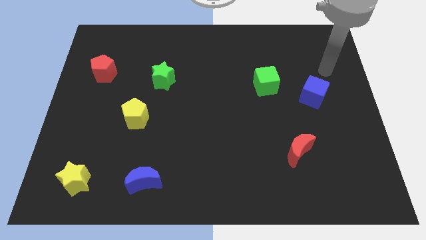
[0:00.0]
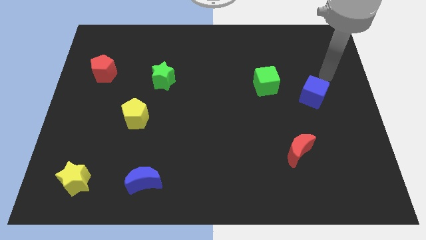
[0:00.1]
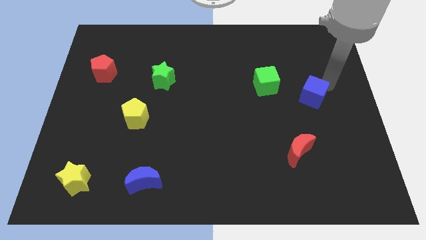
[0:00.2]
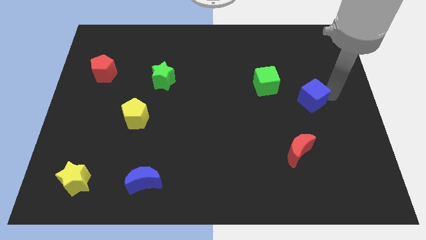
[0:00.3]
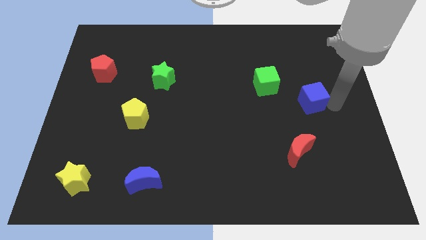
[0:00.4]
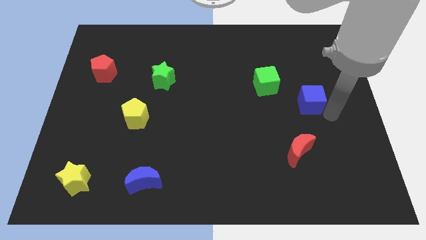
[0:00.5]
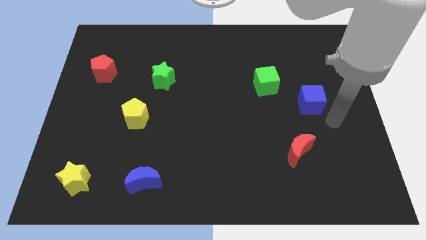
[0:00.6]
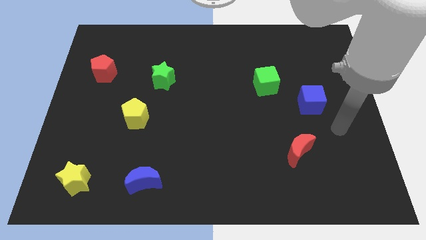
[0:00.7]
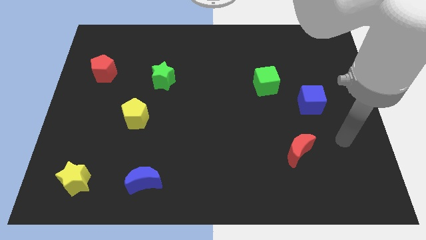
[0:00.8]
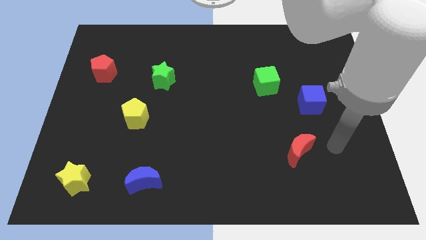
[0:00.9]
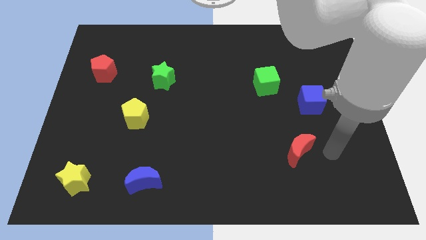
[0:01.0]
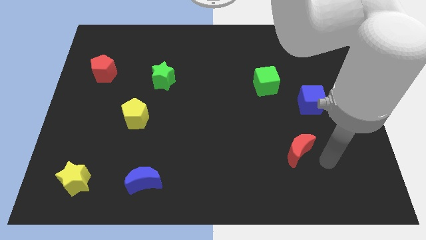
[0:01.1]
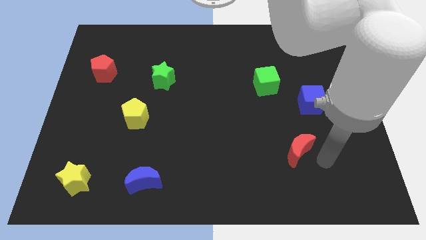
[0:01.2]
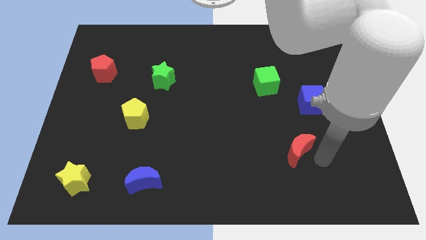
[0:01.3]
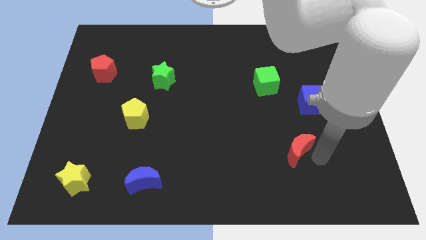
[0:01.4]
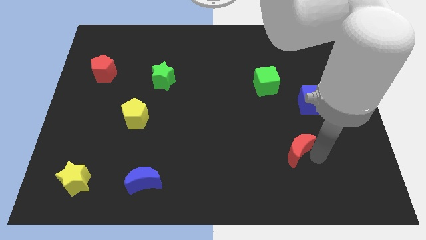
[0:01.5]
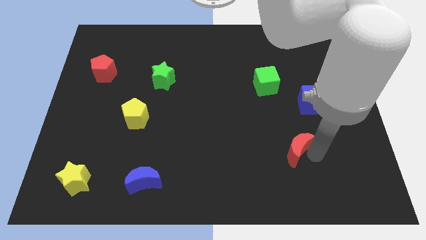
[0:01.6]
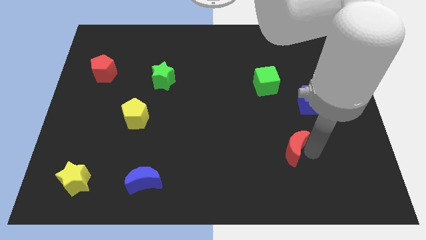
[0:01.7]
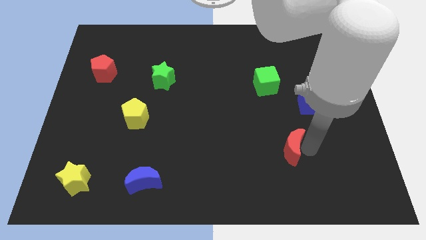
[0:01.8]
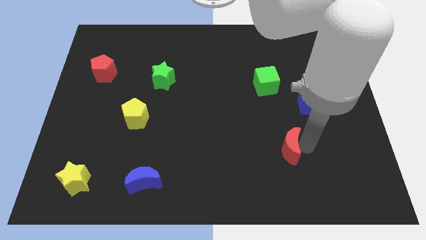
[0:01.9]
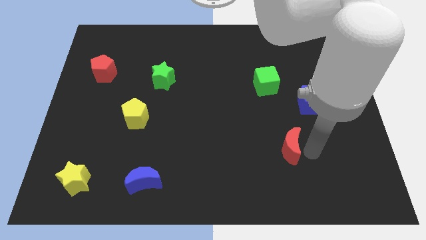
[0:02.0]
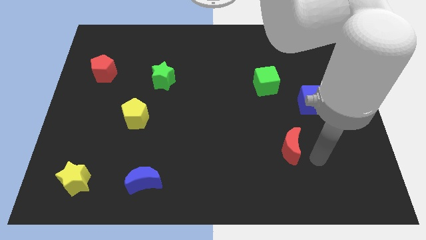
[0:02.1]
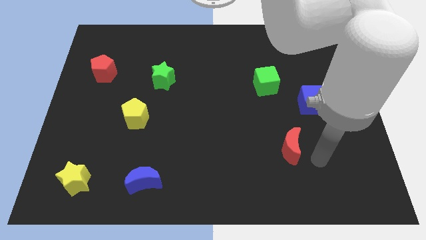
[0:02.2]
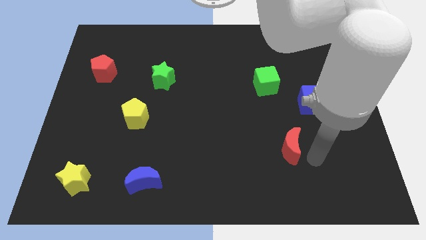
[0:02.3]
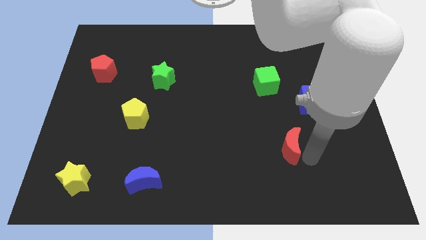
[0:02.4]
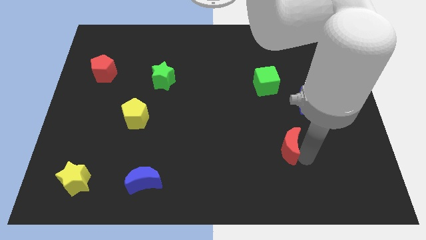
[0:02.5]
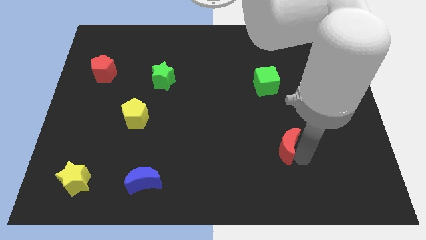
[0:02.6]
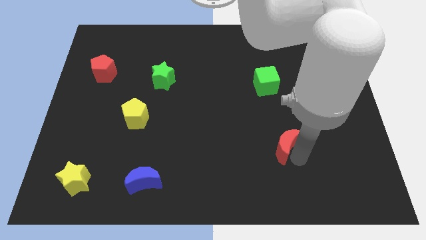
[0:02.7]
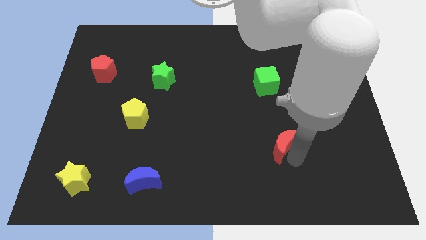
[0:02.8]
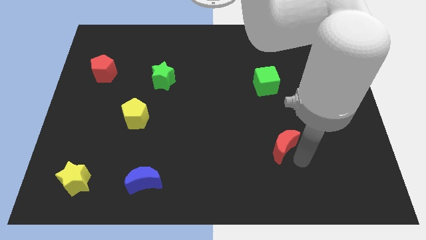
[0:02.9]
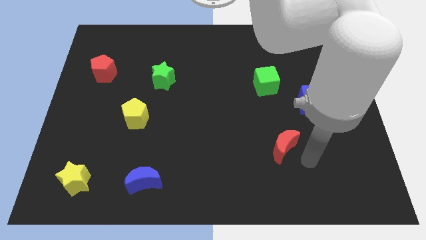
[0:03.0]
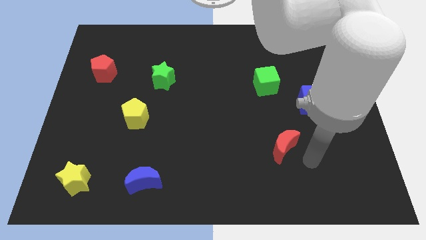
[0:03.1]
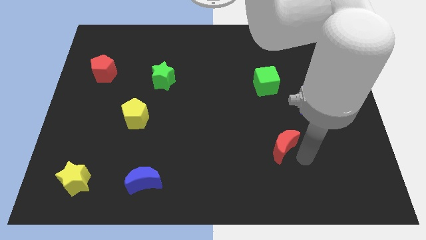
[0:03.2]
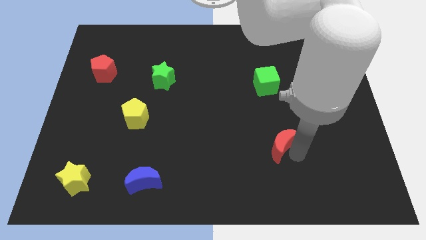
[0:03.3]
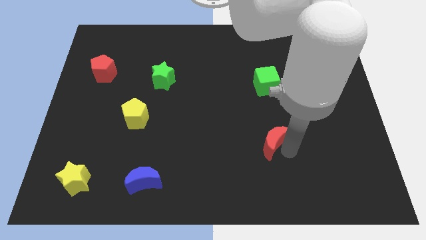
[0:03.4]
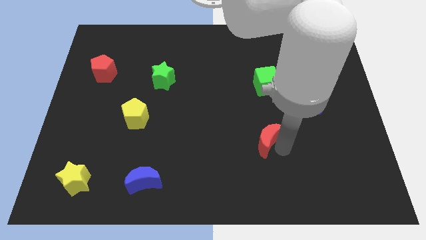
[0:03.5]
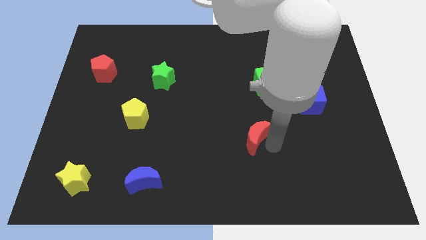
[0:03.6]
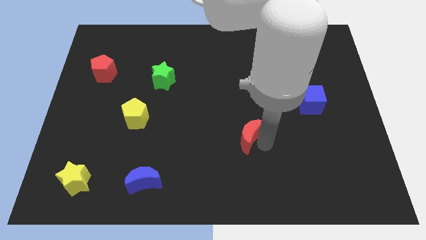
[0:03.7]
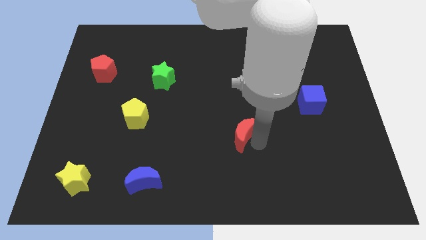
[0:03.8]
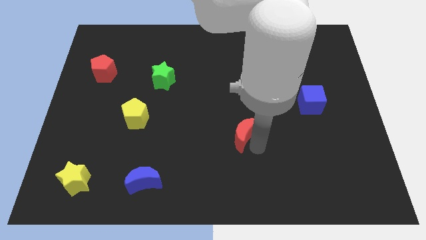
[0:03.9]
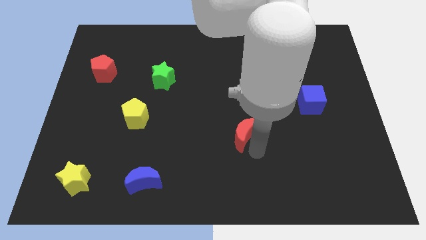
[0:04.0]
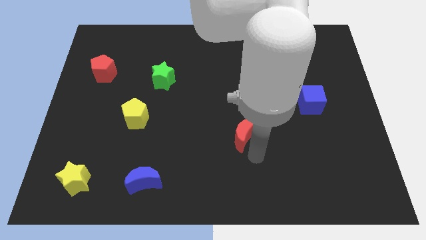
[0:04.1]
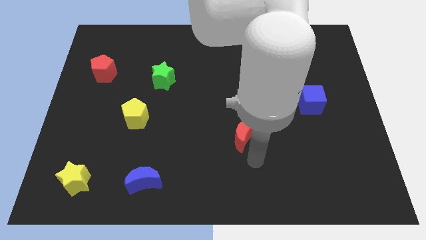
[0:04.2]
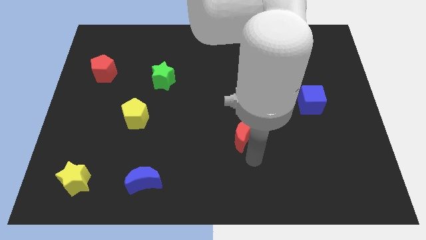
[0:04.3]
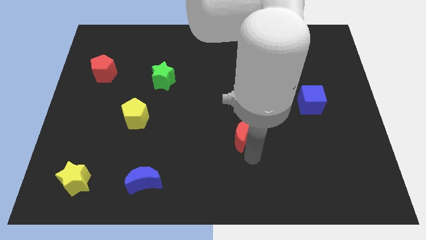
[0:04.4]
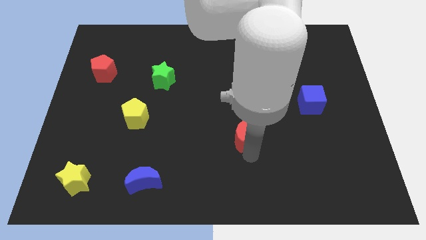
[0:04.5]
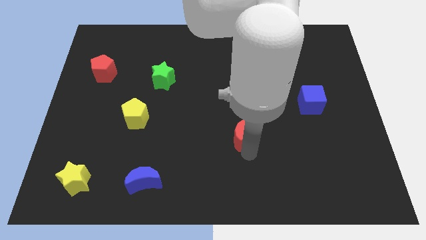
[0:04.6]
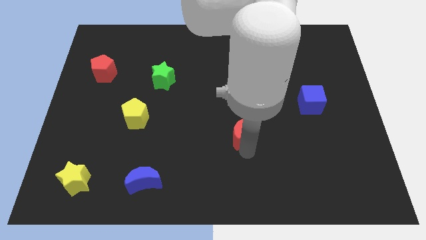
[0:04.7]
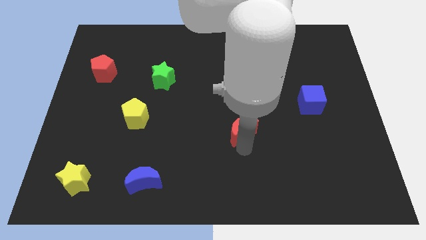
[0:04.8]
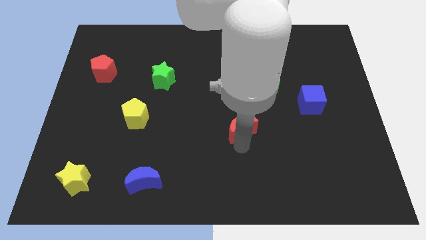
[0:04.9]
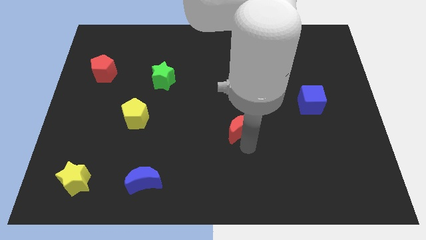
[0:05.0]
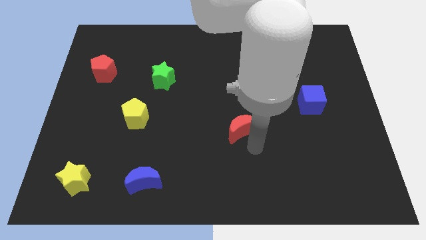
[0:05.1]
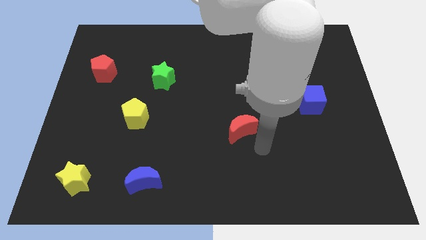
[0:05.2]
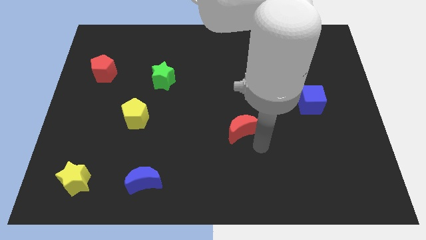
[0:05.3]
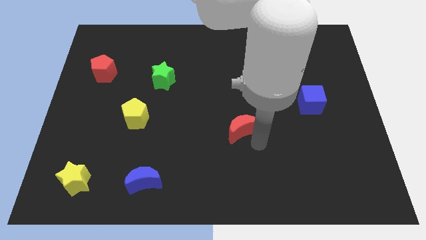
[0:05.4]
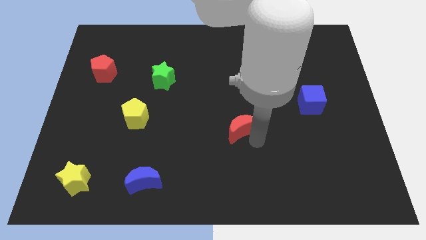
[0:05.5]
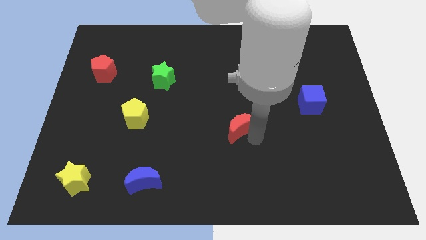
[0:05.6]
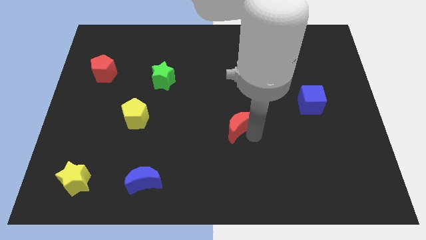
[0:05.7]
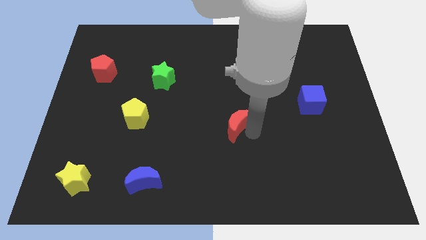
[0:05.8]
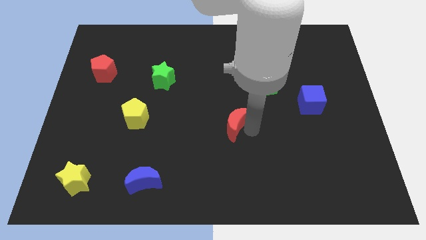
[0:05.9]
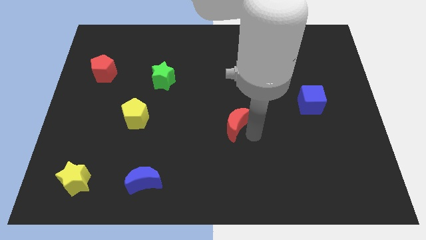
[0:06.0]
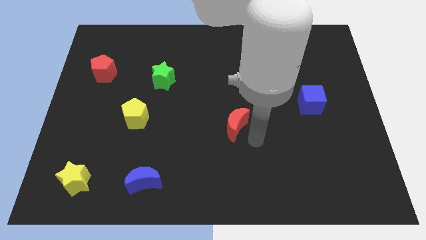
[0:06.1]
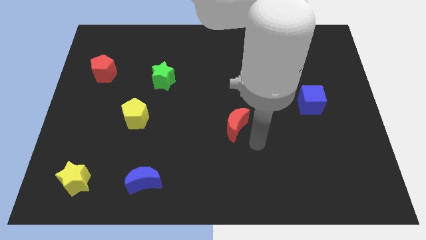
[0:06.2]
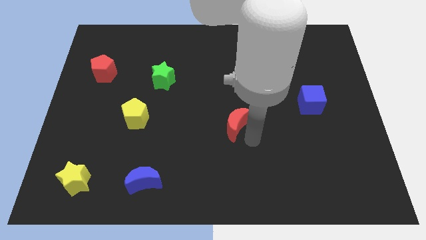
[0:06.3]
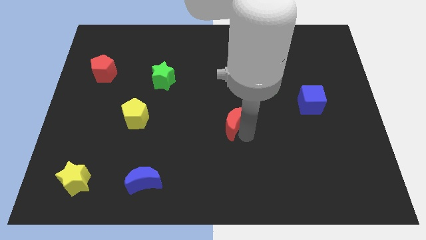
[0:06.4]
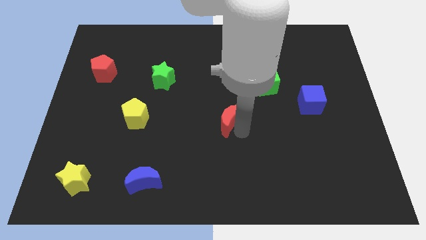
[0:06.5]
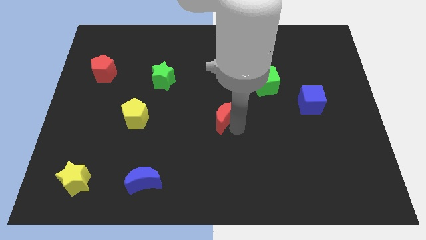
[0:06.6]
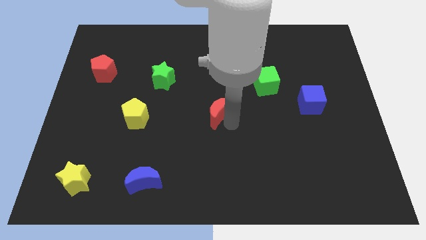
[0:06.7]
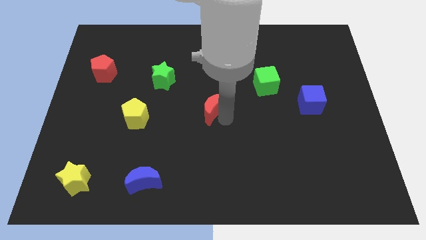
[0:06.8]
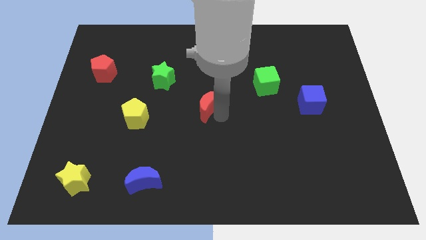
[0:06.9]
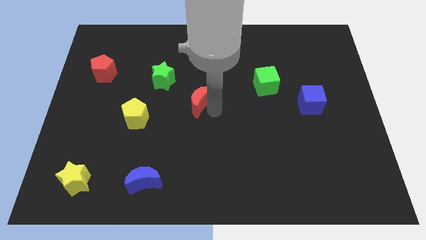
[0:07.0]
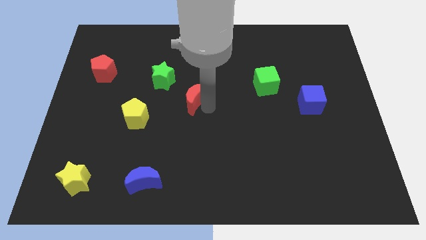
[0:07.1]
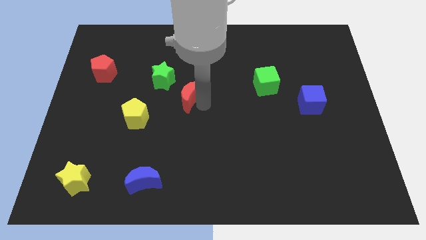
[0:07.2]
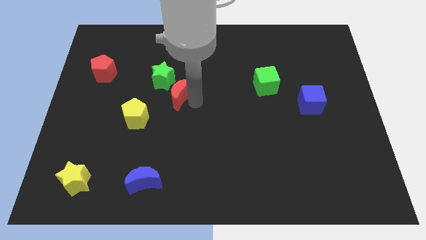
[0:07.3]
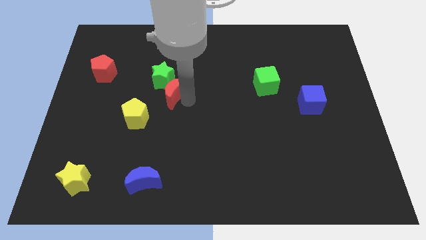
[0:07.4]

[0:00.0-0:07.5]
put the red moon next to the green star
